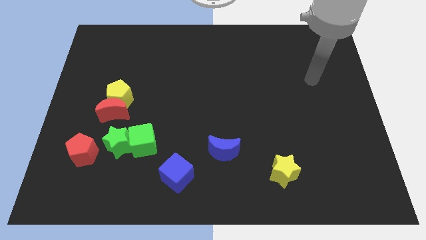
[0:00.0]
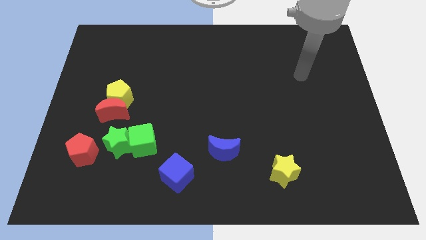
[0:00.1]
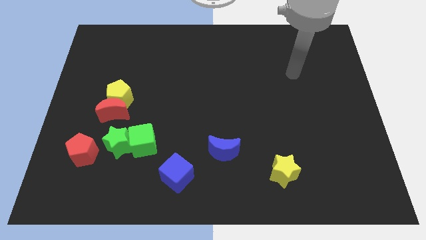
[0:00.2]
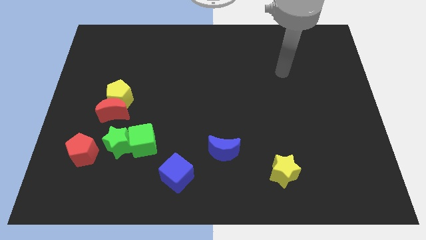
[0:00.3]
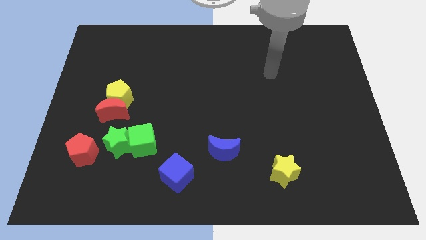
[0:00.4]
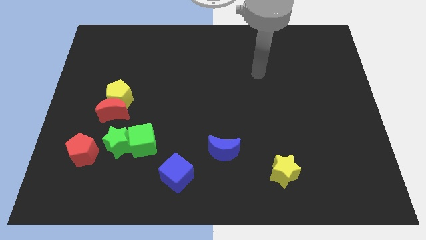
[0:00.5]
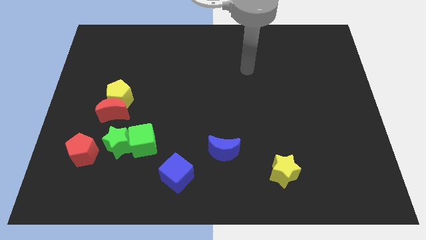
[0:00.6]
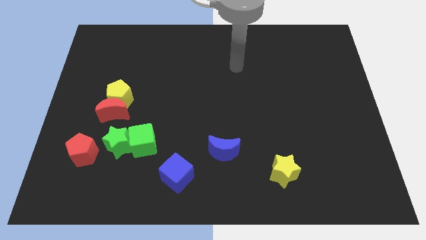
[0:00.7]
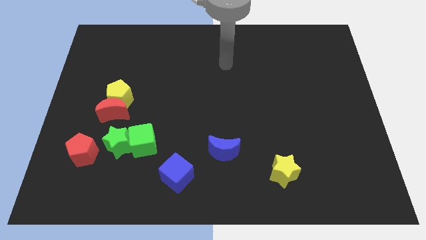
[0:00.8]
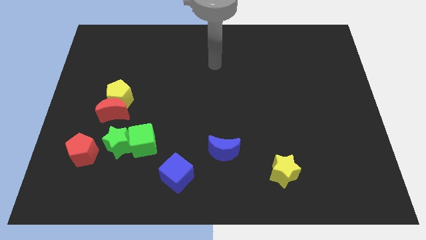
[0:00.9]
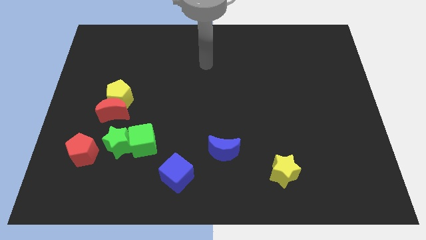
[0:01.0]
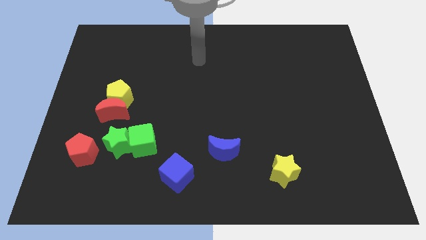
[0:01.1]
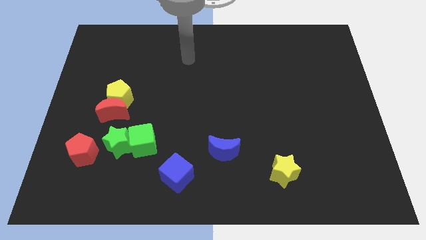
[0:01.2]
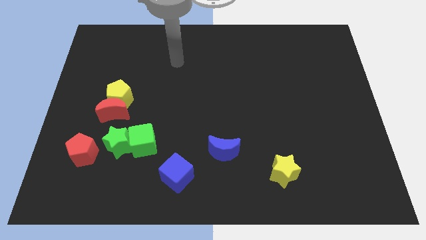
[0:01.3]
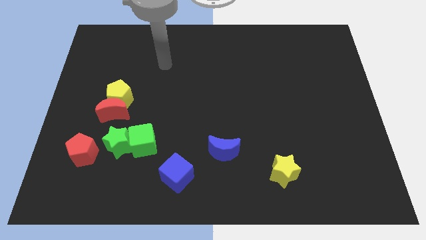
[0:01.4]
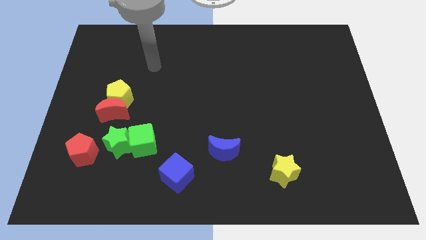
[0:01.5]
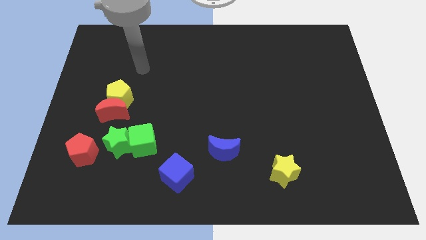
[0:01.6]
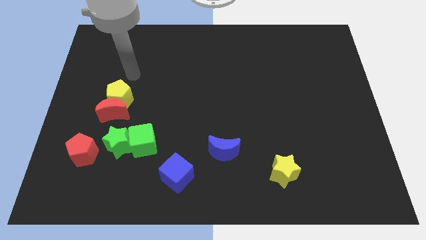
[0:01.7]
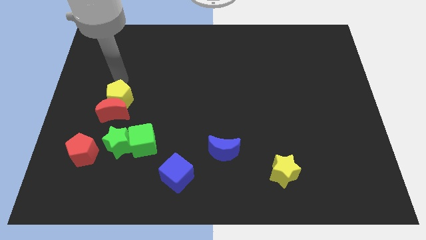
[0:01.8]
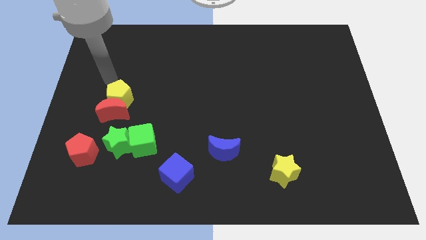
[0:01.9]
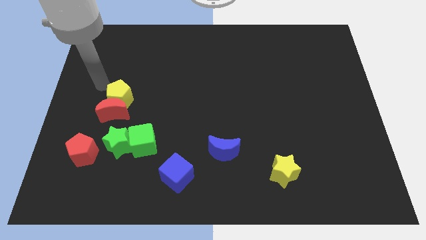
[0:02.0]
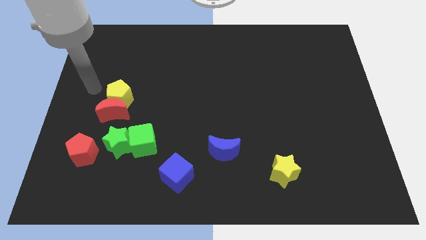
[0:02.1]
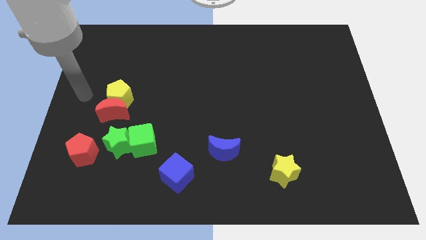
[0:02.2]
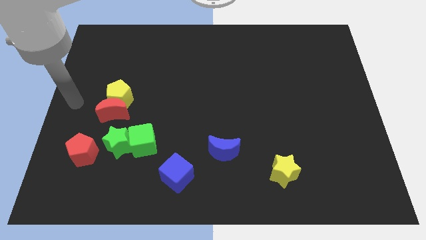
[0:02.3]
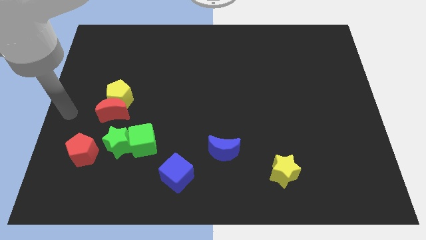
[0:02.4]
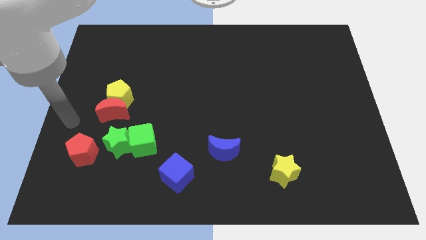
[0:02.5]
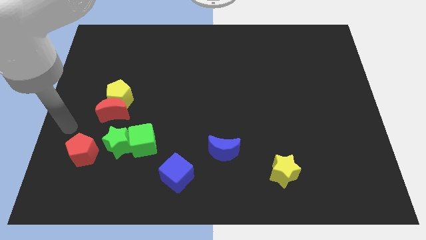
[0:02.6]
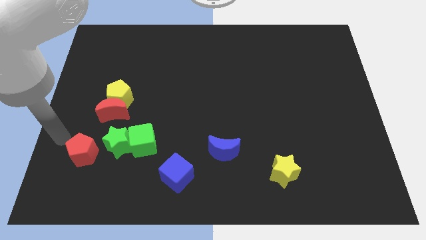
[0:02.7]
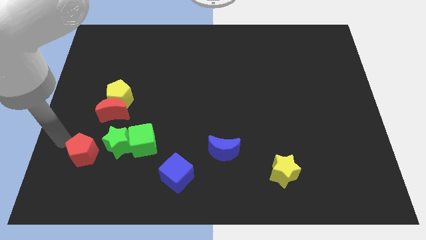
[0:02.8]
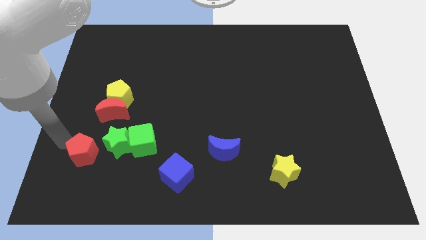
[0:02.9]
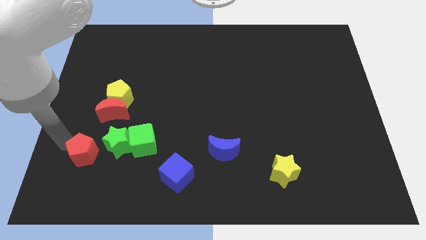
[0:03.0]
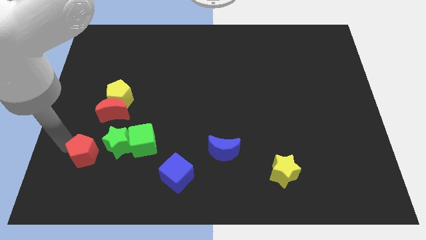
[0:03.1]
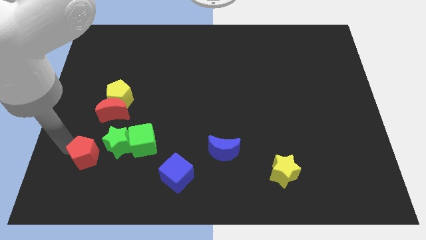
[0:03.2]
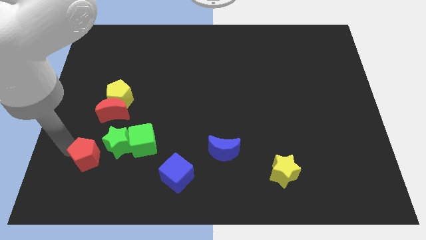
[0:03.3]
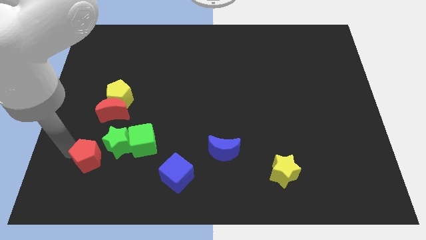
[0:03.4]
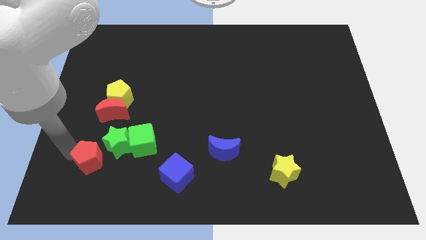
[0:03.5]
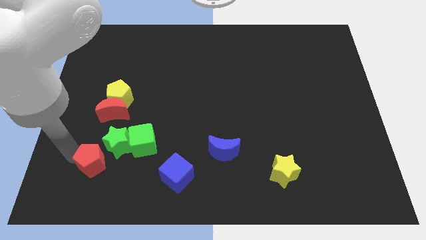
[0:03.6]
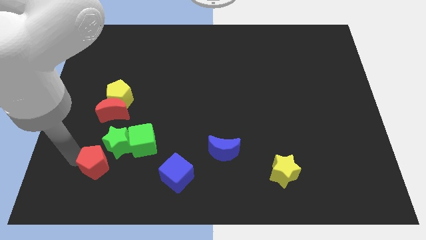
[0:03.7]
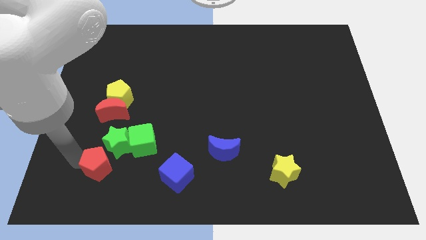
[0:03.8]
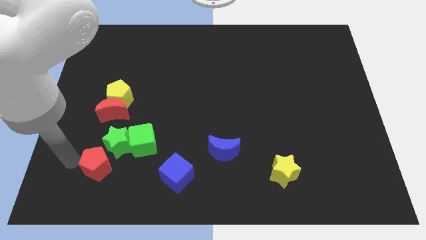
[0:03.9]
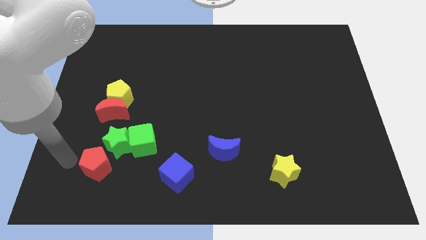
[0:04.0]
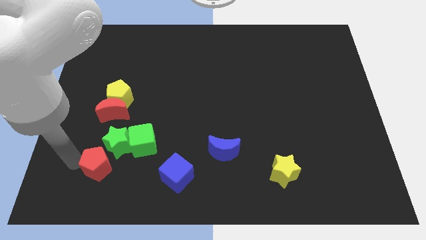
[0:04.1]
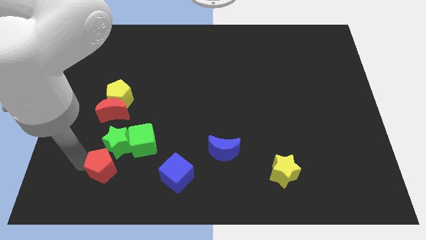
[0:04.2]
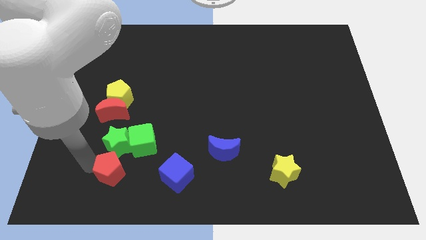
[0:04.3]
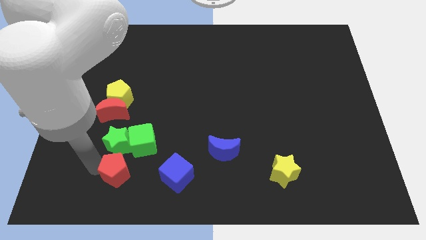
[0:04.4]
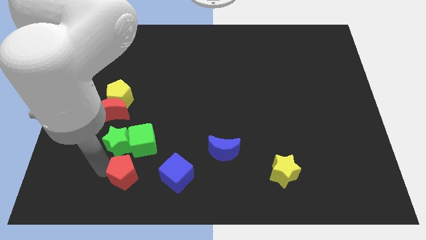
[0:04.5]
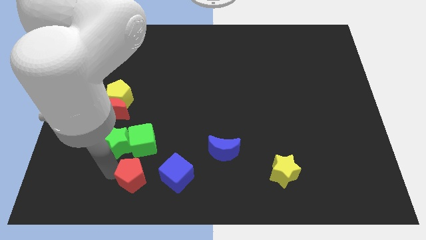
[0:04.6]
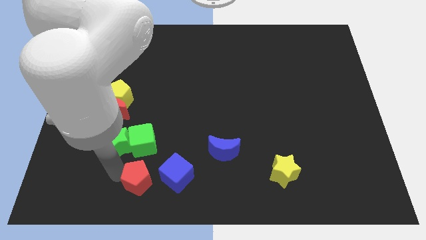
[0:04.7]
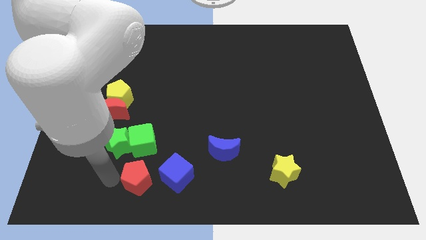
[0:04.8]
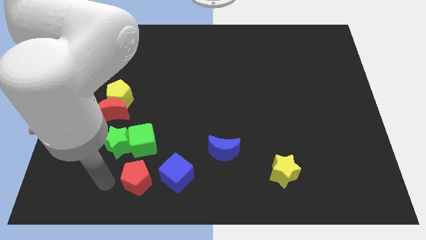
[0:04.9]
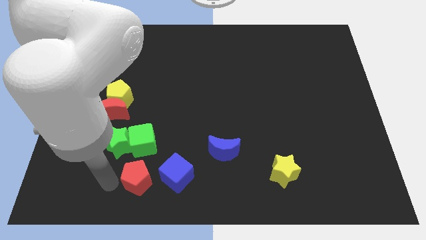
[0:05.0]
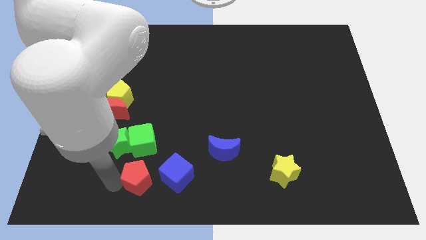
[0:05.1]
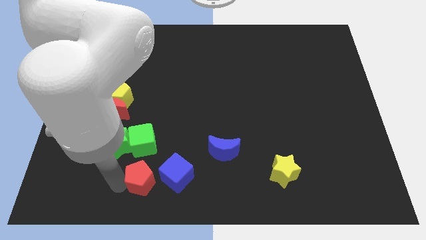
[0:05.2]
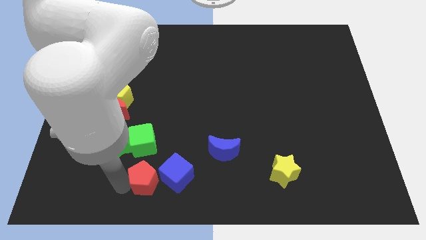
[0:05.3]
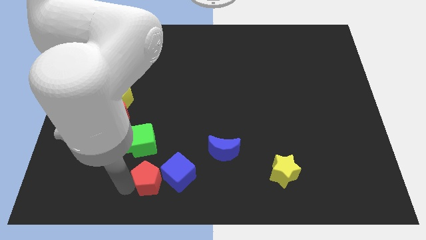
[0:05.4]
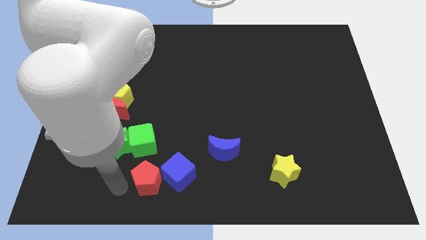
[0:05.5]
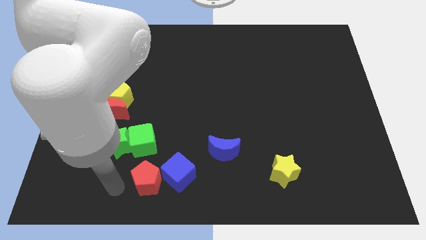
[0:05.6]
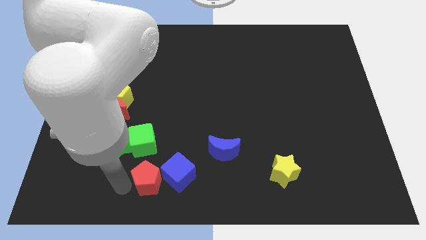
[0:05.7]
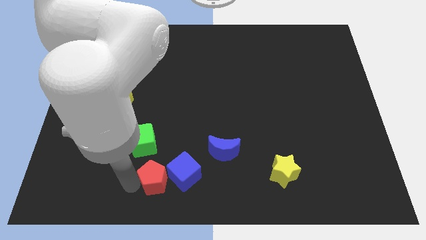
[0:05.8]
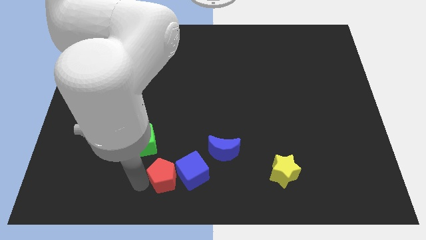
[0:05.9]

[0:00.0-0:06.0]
slide the red pentagon close to the blue cube

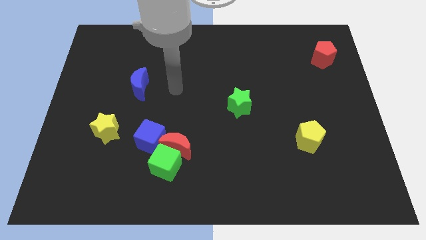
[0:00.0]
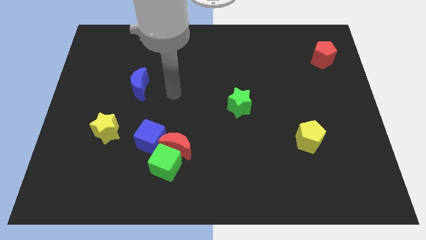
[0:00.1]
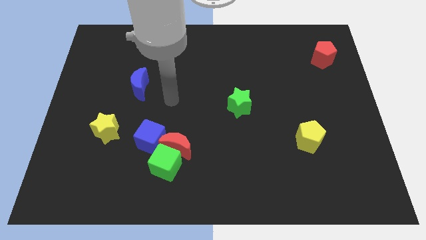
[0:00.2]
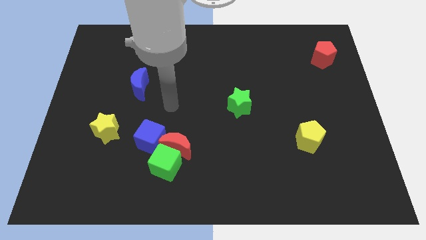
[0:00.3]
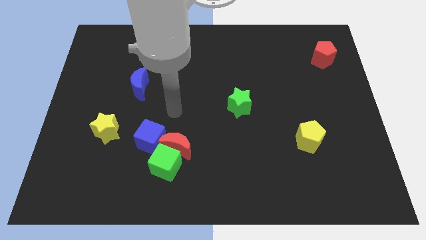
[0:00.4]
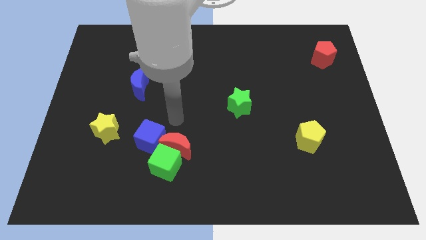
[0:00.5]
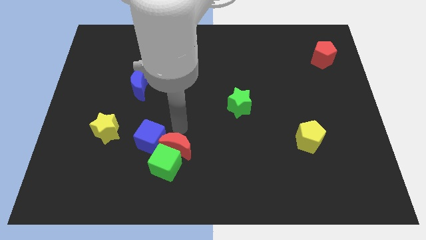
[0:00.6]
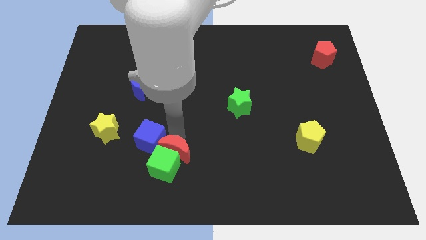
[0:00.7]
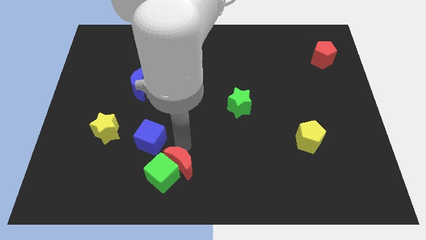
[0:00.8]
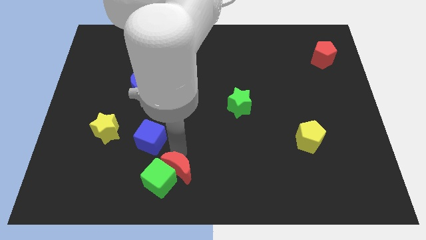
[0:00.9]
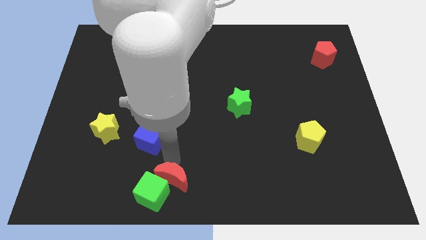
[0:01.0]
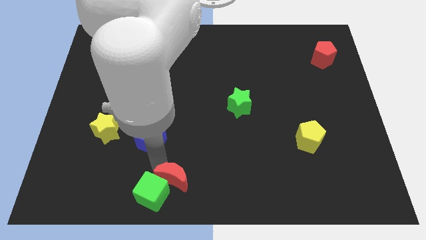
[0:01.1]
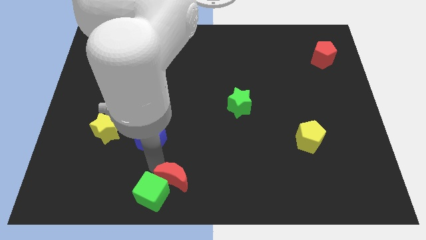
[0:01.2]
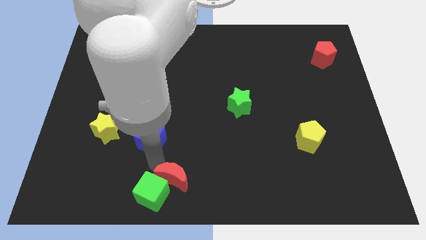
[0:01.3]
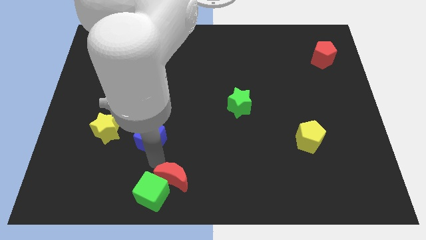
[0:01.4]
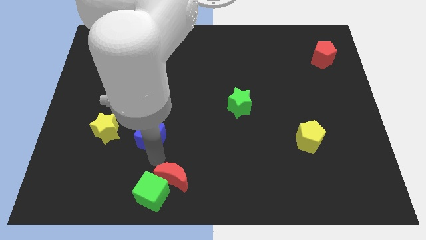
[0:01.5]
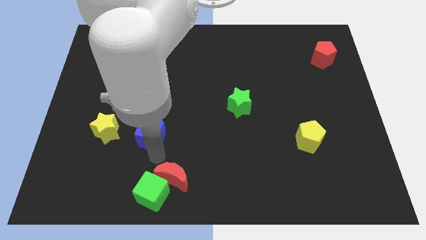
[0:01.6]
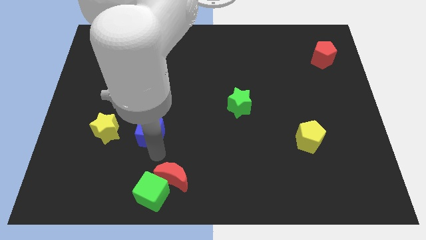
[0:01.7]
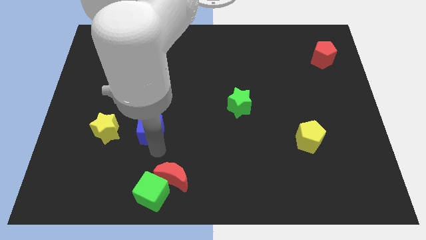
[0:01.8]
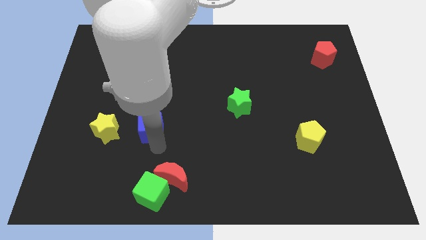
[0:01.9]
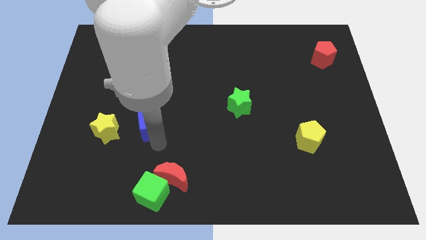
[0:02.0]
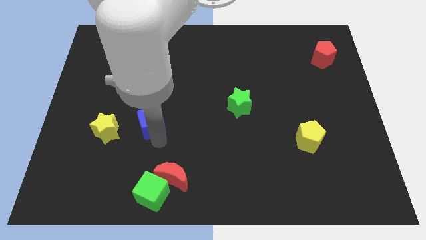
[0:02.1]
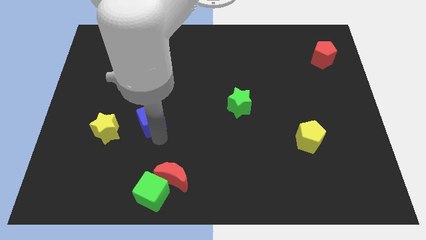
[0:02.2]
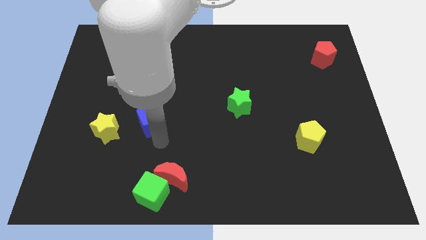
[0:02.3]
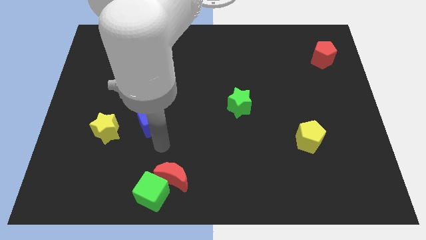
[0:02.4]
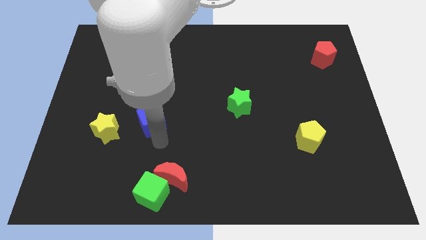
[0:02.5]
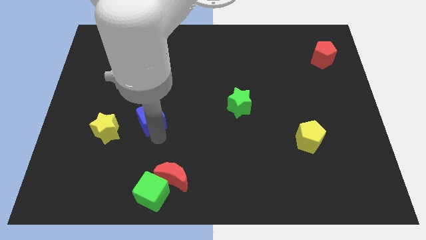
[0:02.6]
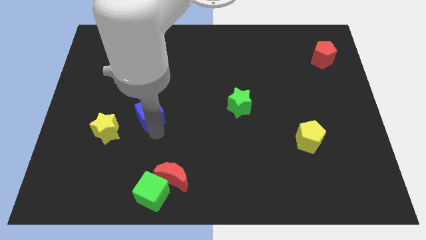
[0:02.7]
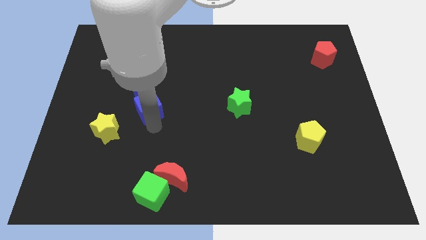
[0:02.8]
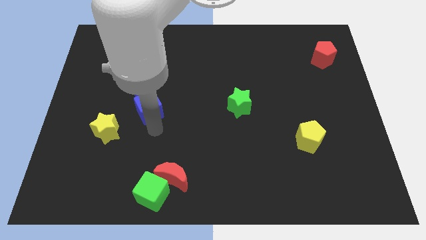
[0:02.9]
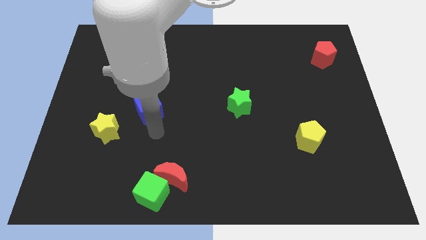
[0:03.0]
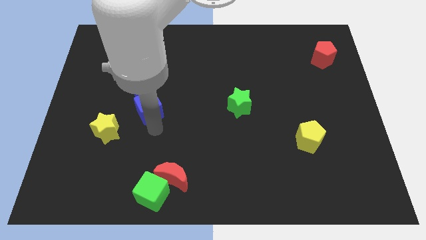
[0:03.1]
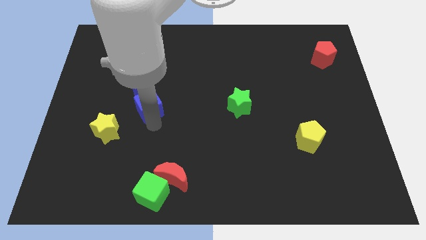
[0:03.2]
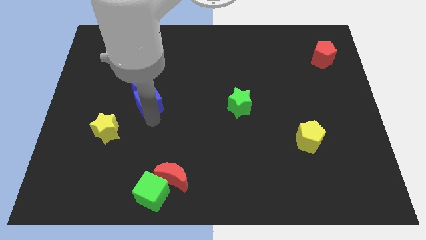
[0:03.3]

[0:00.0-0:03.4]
put the blue cube next to the blue moon
